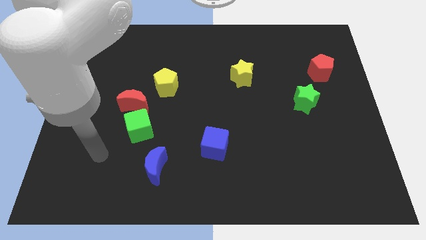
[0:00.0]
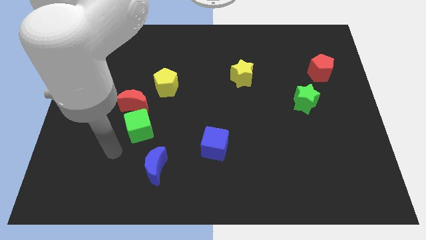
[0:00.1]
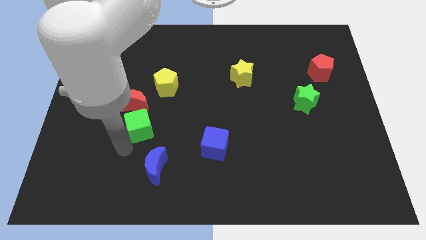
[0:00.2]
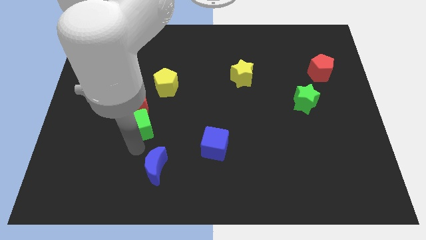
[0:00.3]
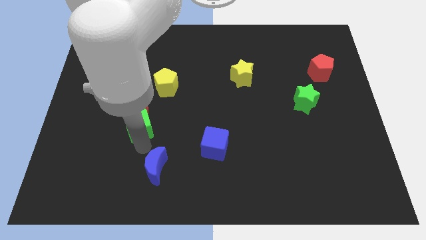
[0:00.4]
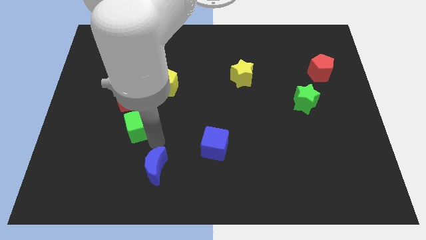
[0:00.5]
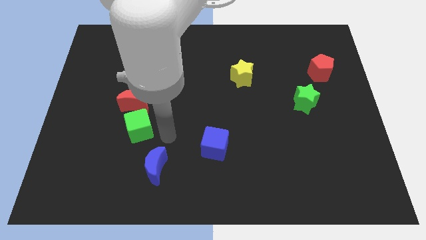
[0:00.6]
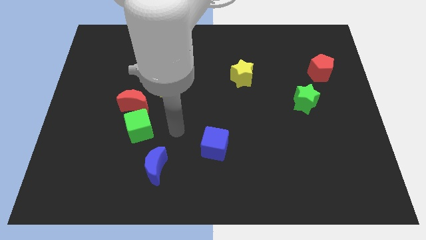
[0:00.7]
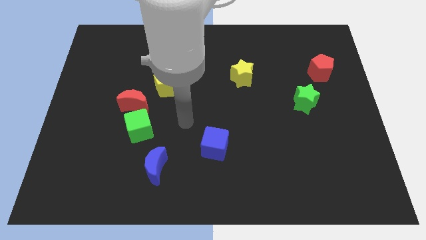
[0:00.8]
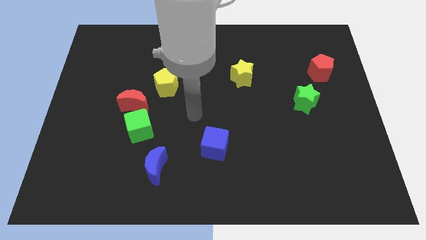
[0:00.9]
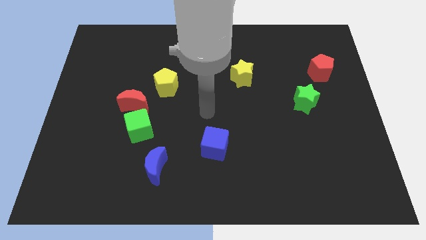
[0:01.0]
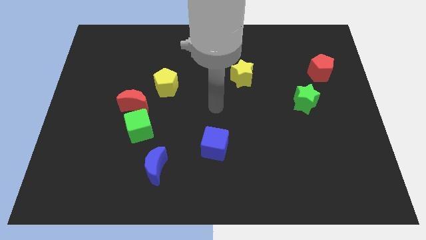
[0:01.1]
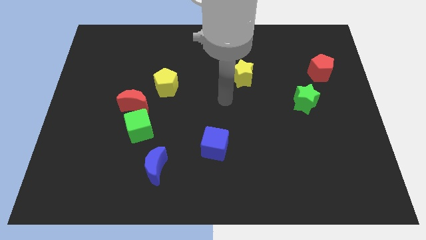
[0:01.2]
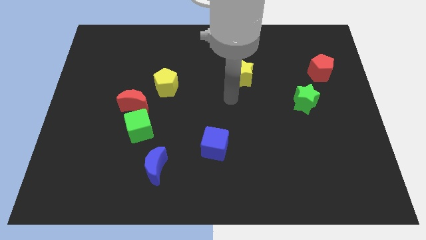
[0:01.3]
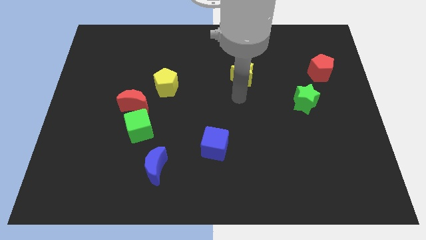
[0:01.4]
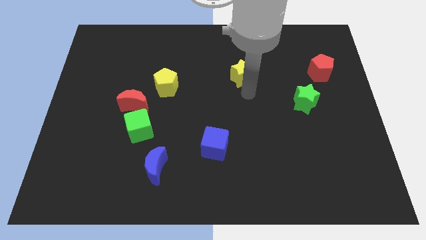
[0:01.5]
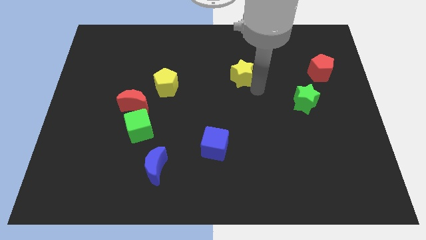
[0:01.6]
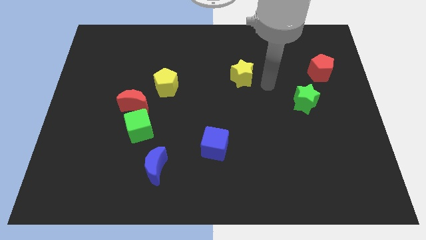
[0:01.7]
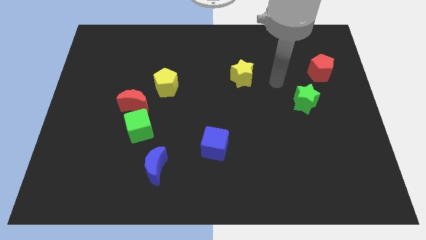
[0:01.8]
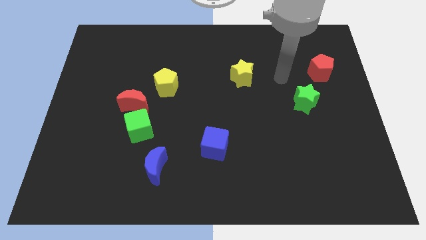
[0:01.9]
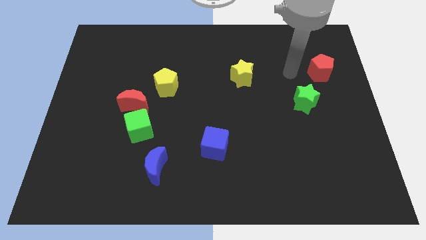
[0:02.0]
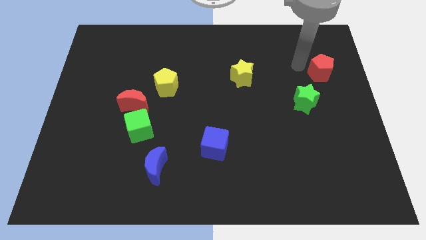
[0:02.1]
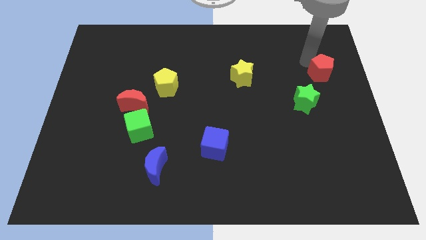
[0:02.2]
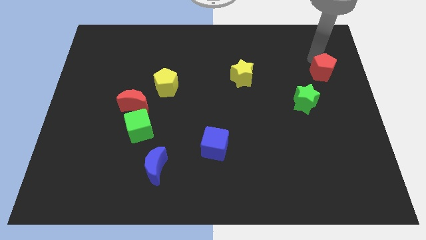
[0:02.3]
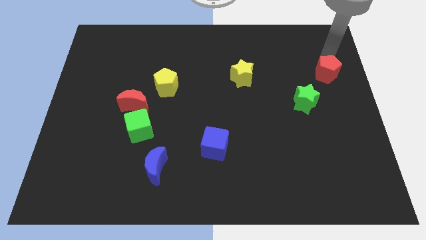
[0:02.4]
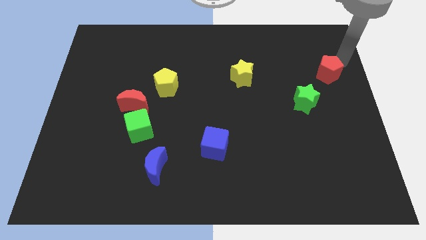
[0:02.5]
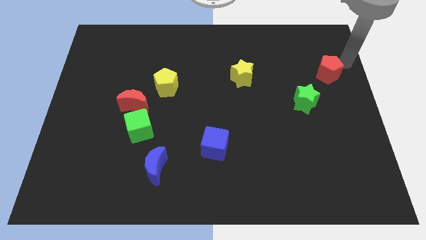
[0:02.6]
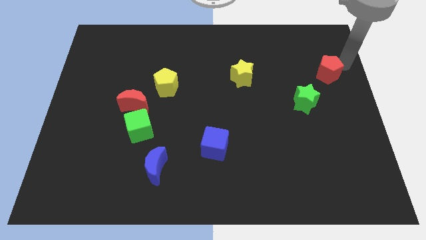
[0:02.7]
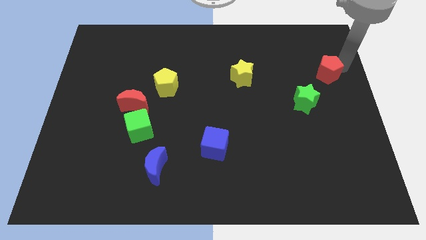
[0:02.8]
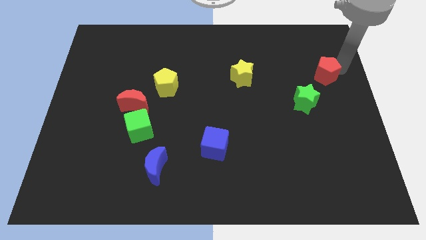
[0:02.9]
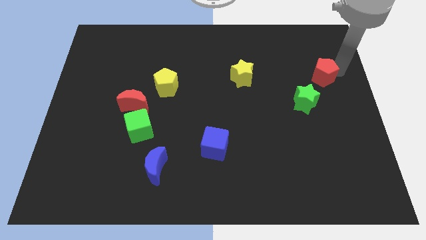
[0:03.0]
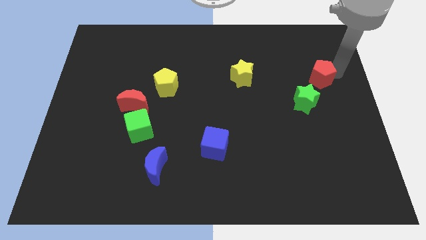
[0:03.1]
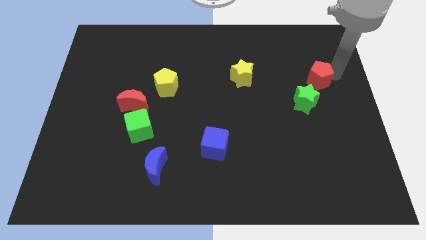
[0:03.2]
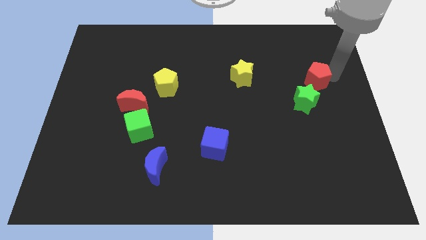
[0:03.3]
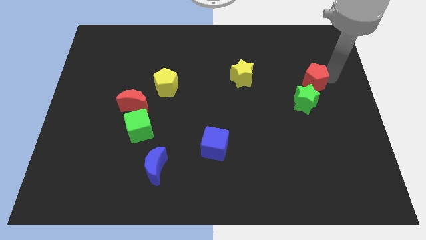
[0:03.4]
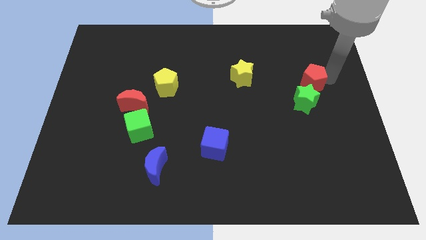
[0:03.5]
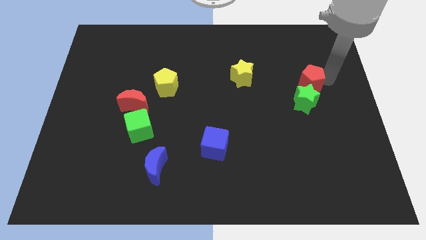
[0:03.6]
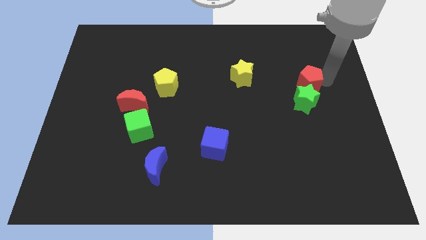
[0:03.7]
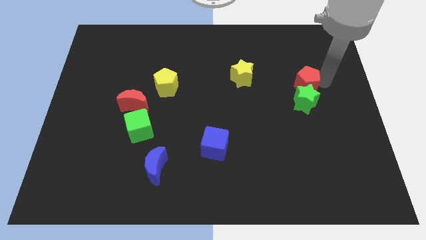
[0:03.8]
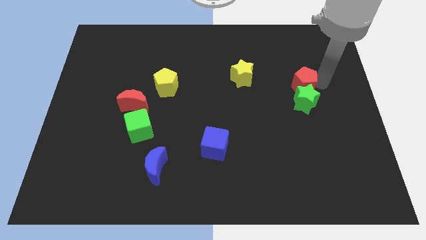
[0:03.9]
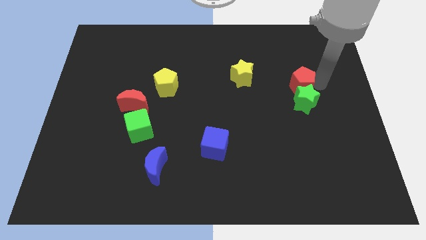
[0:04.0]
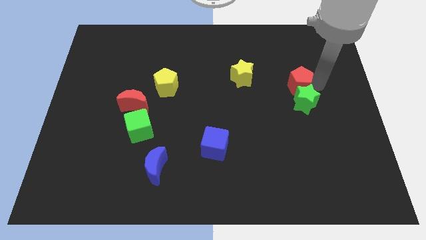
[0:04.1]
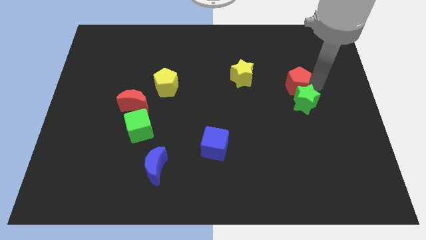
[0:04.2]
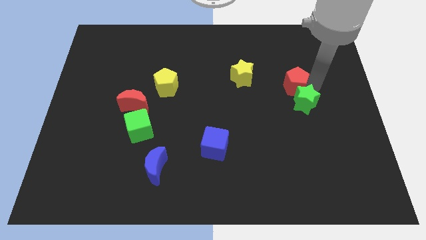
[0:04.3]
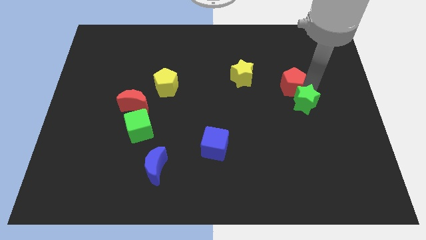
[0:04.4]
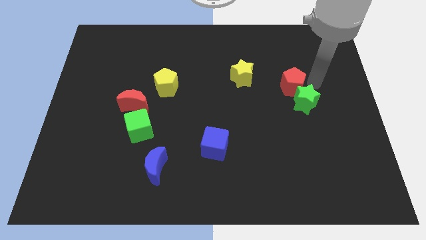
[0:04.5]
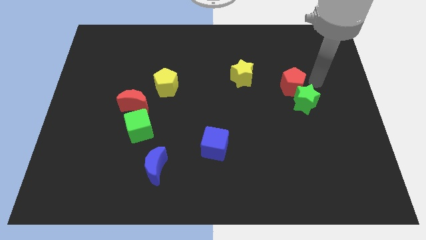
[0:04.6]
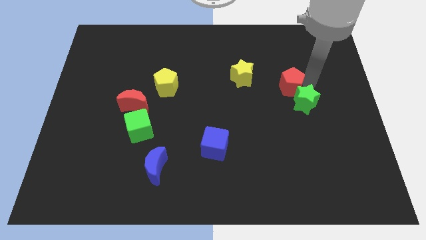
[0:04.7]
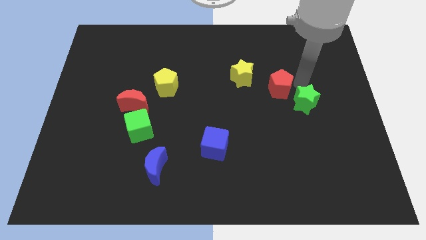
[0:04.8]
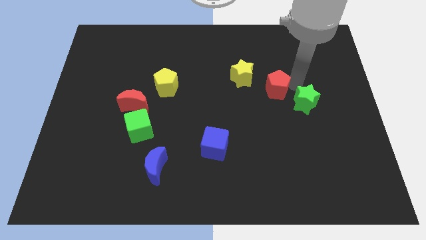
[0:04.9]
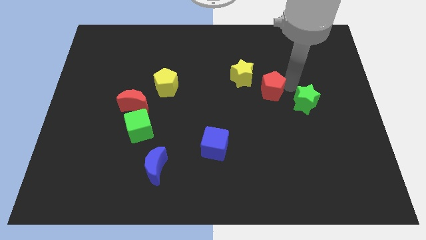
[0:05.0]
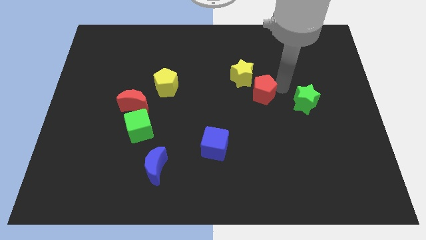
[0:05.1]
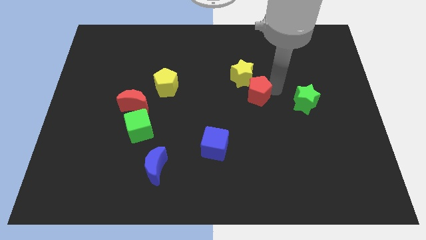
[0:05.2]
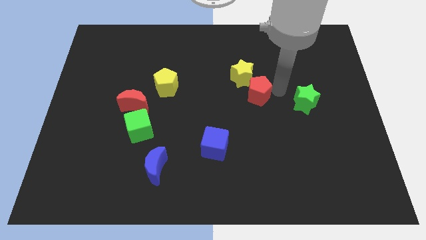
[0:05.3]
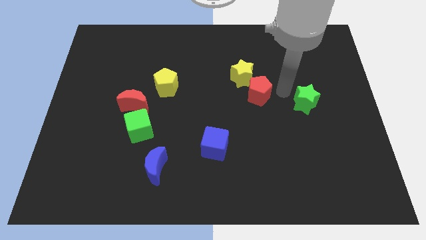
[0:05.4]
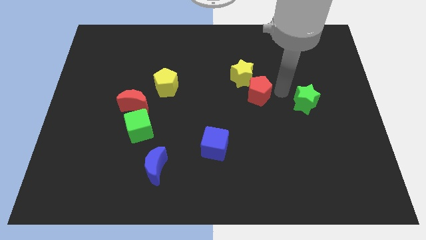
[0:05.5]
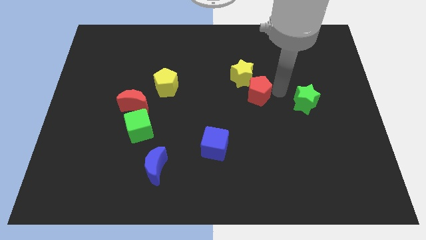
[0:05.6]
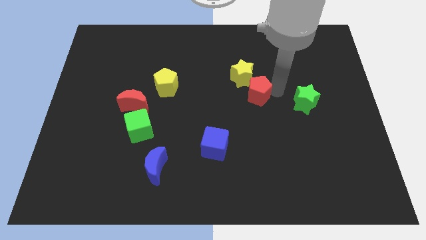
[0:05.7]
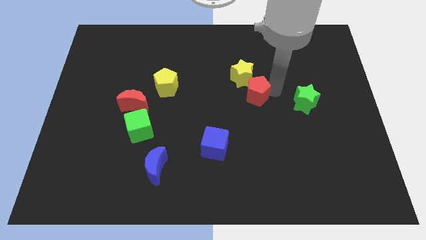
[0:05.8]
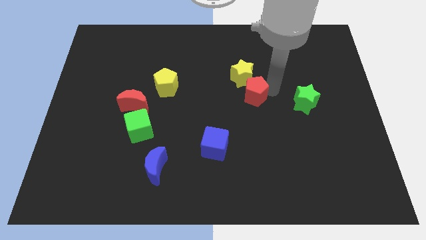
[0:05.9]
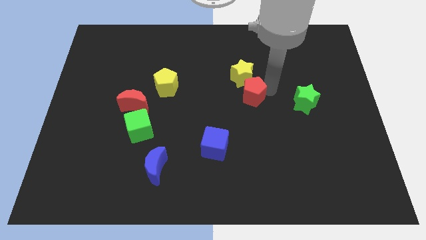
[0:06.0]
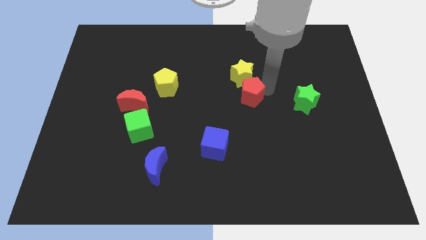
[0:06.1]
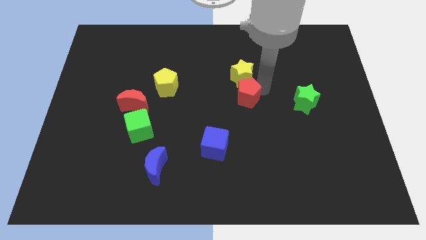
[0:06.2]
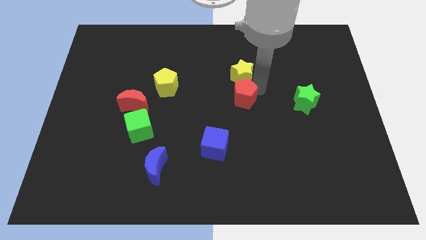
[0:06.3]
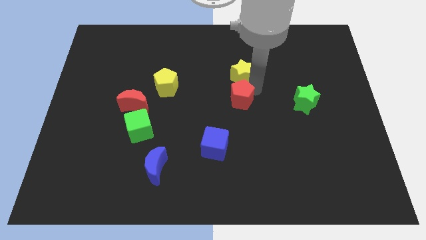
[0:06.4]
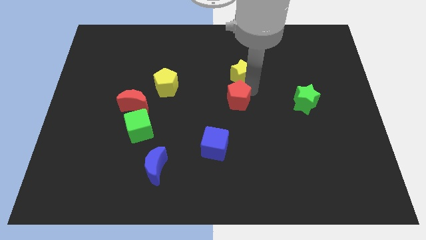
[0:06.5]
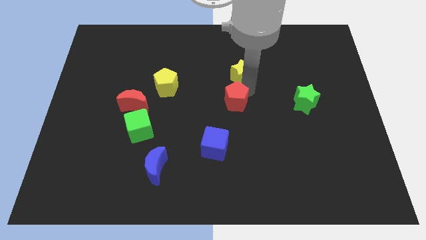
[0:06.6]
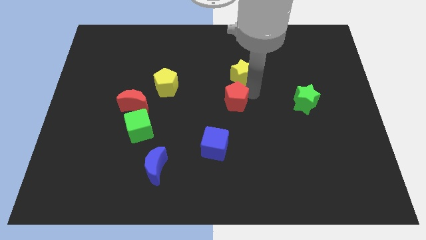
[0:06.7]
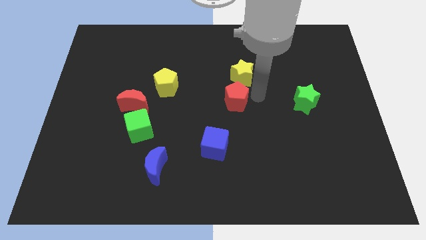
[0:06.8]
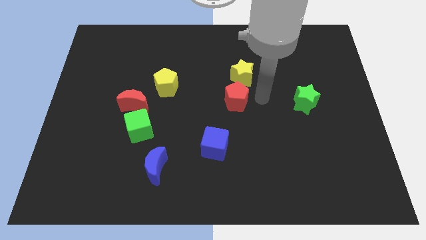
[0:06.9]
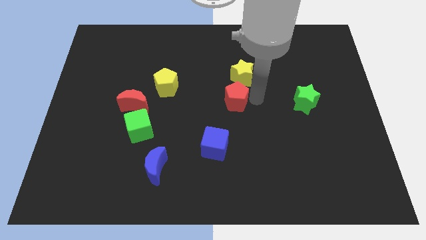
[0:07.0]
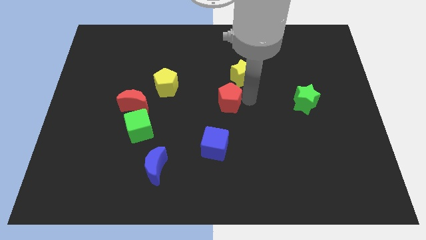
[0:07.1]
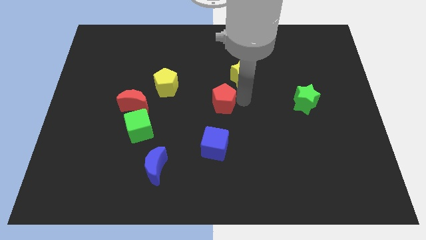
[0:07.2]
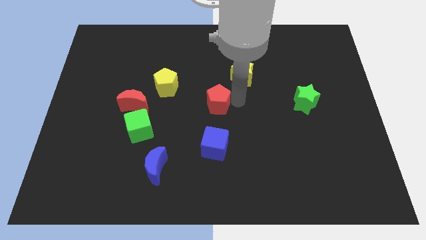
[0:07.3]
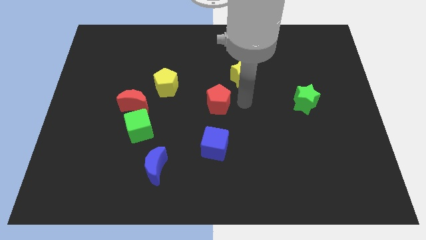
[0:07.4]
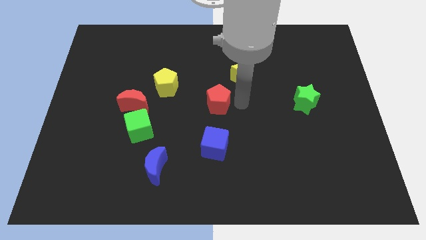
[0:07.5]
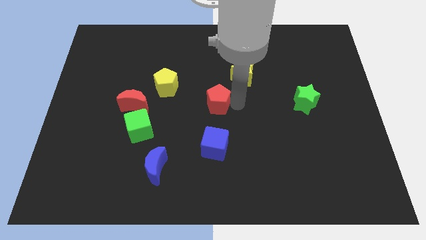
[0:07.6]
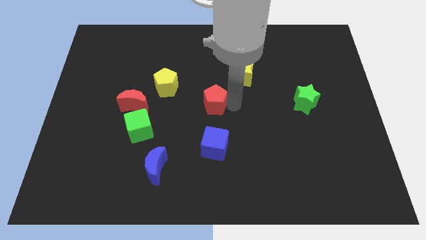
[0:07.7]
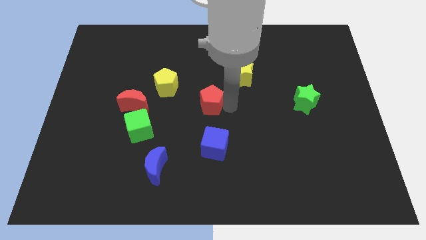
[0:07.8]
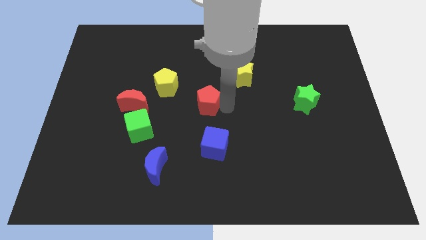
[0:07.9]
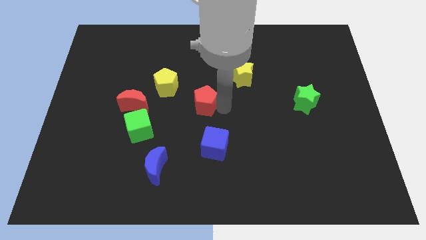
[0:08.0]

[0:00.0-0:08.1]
move the red pentagon to the right of the red moon
